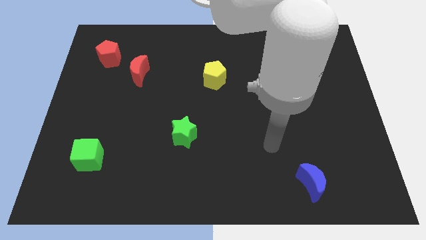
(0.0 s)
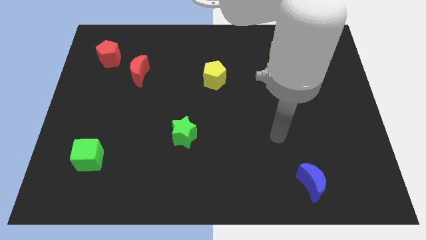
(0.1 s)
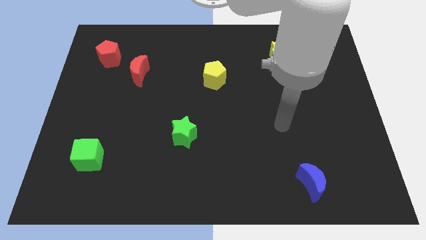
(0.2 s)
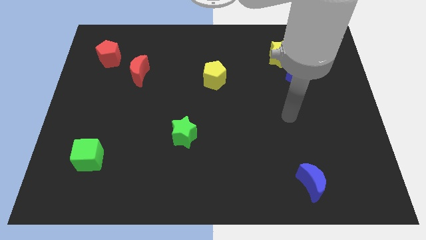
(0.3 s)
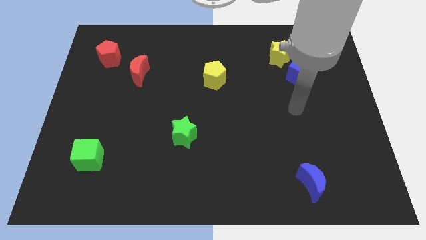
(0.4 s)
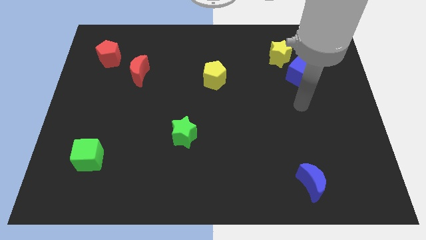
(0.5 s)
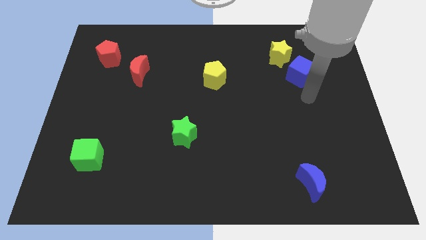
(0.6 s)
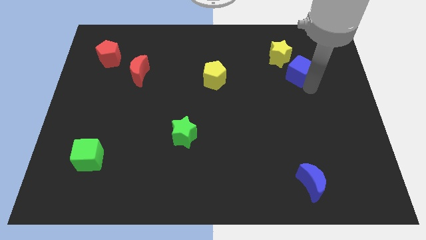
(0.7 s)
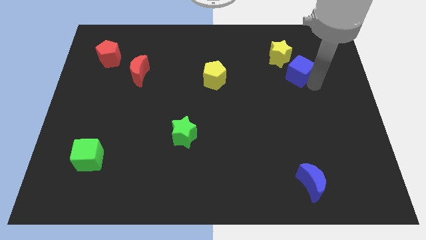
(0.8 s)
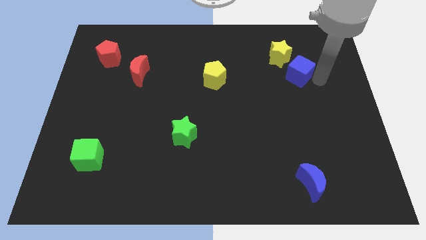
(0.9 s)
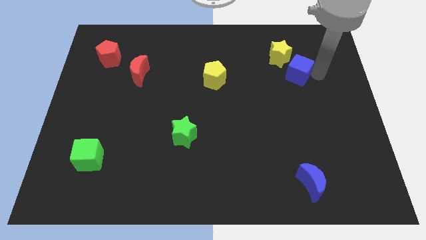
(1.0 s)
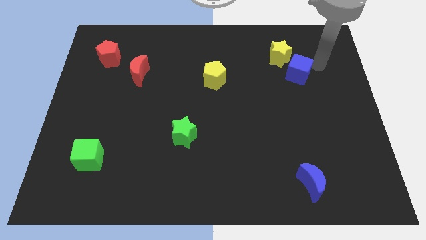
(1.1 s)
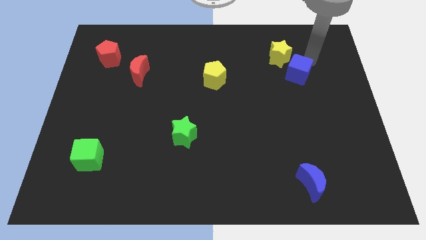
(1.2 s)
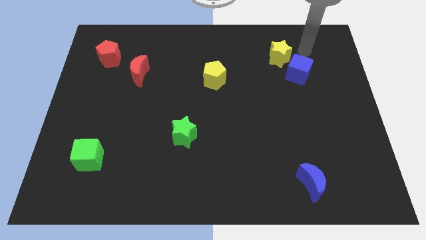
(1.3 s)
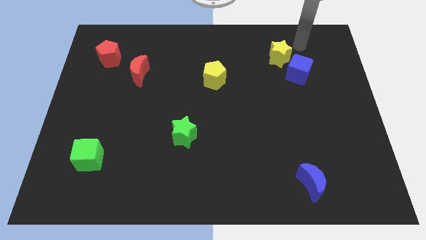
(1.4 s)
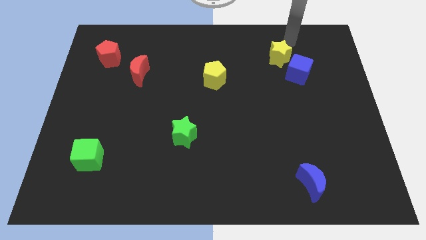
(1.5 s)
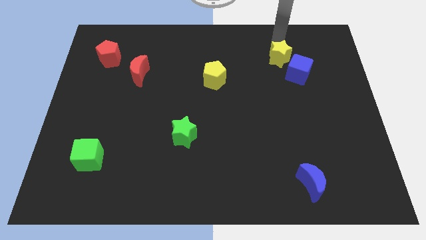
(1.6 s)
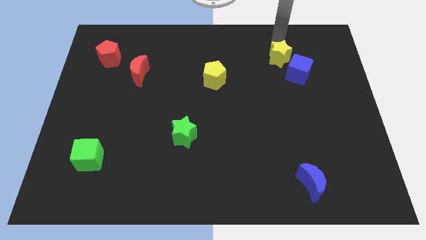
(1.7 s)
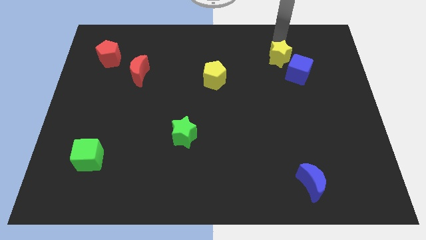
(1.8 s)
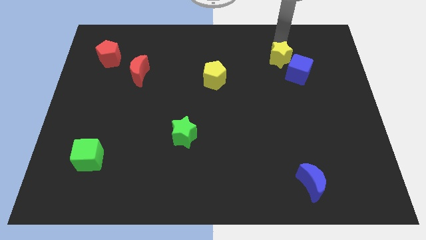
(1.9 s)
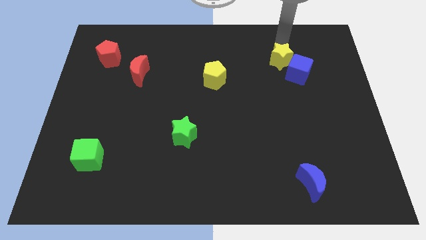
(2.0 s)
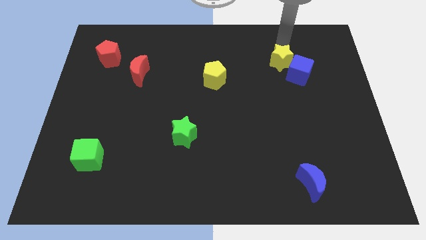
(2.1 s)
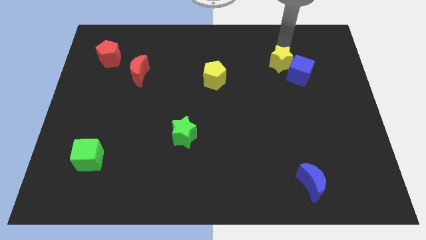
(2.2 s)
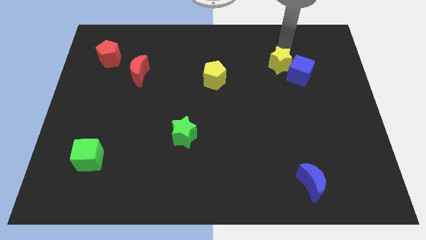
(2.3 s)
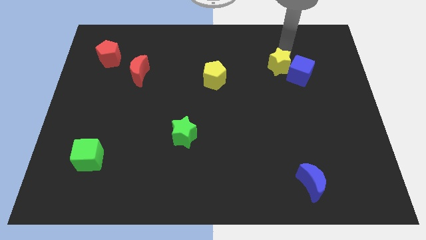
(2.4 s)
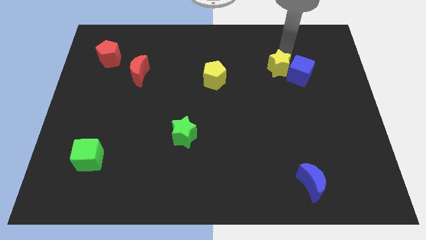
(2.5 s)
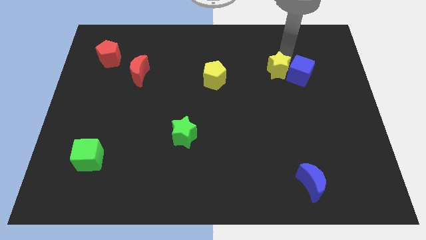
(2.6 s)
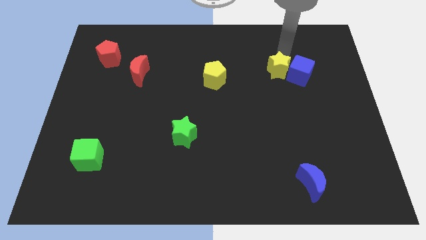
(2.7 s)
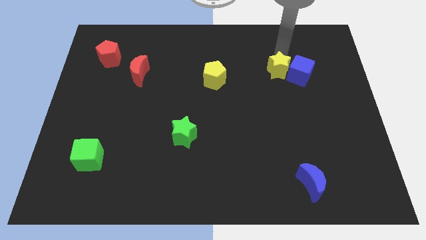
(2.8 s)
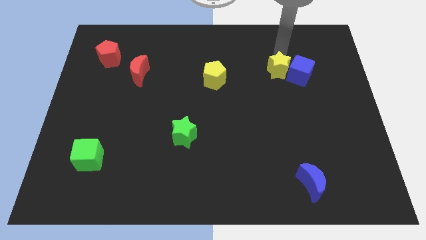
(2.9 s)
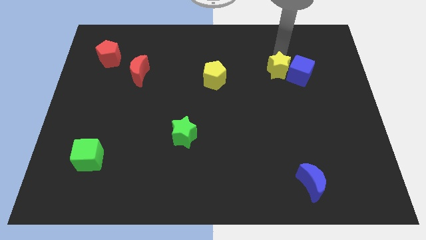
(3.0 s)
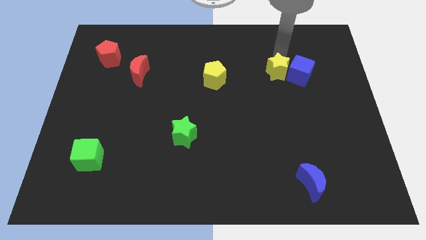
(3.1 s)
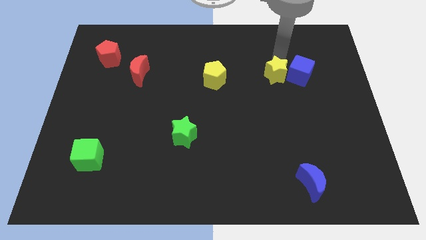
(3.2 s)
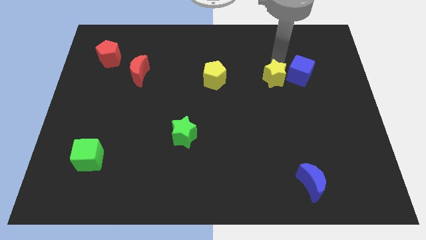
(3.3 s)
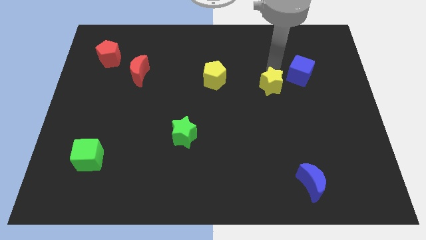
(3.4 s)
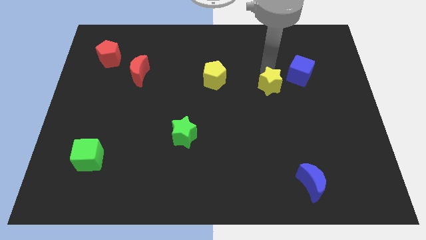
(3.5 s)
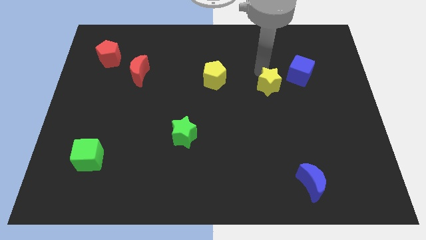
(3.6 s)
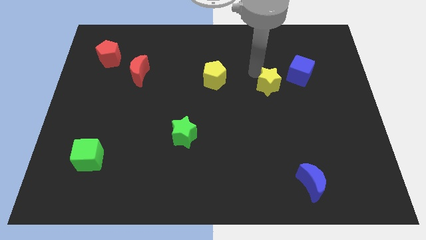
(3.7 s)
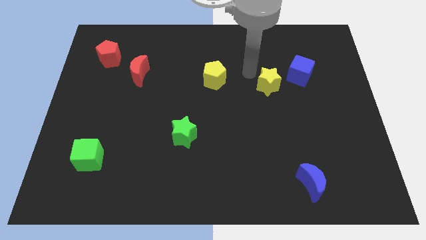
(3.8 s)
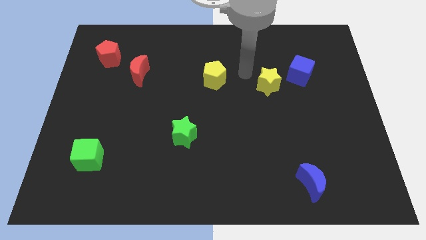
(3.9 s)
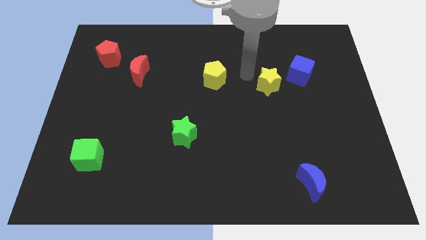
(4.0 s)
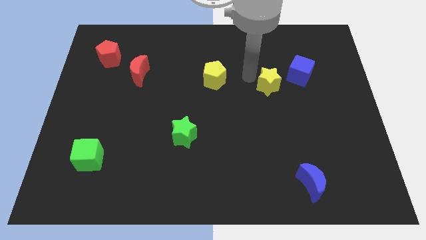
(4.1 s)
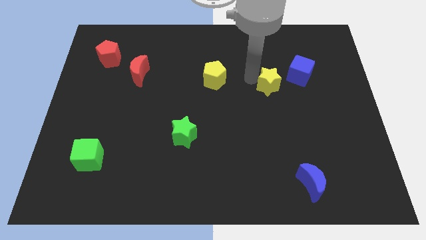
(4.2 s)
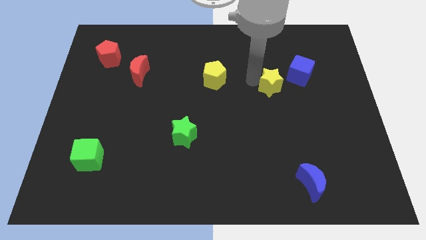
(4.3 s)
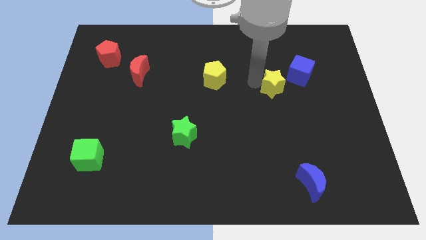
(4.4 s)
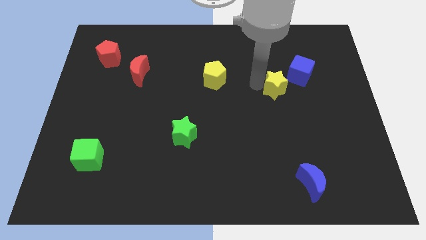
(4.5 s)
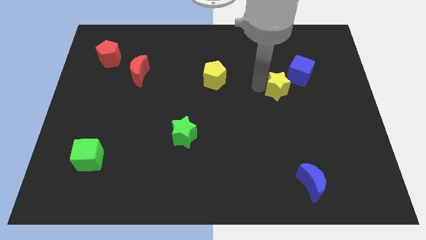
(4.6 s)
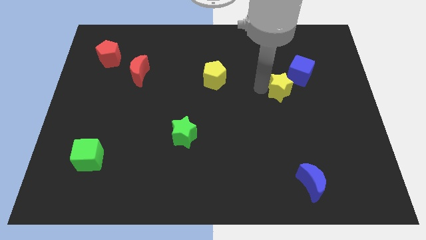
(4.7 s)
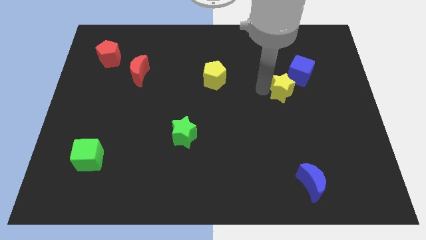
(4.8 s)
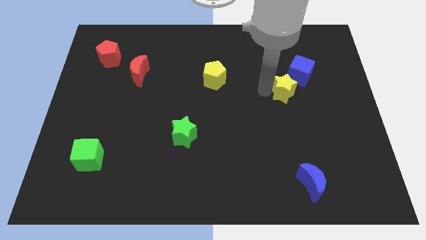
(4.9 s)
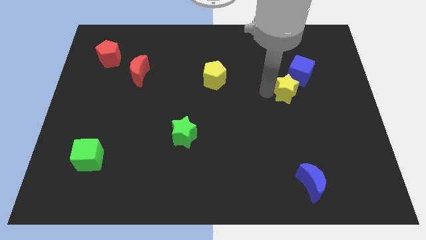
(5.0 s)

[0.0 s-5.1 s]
push the yellow star below the blue cube
